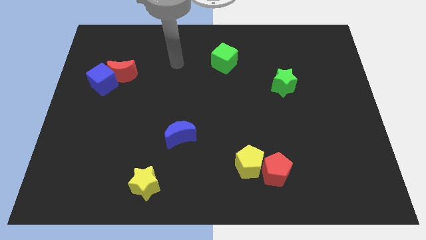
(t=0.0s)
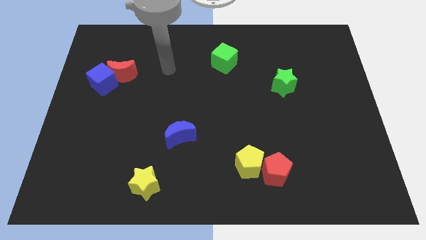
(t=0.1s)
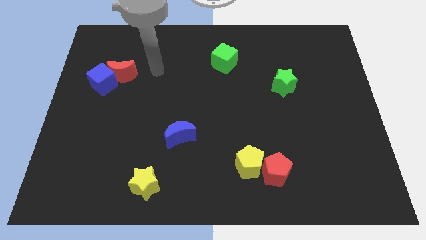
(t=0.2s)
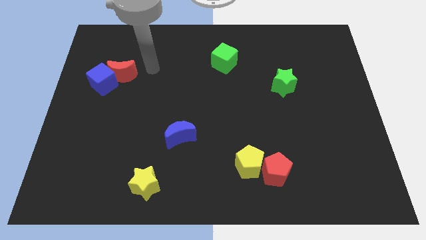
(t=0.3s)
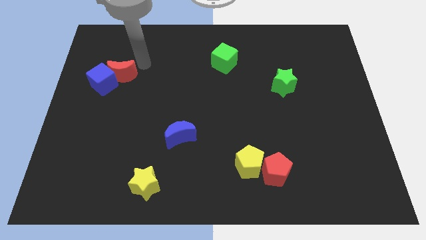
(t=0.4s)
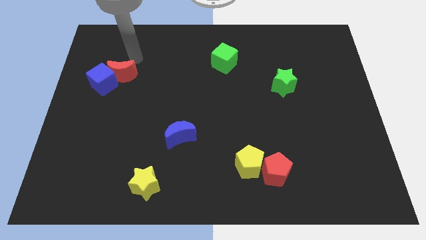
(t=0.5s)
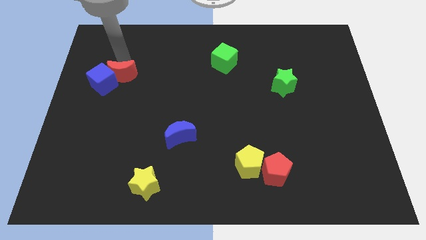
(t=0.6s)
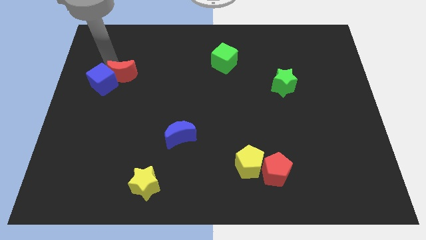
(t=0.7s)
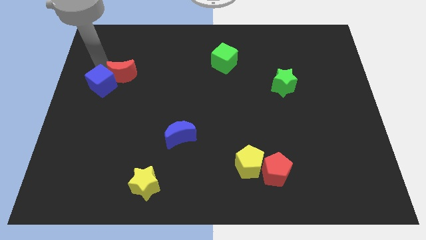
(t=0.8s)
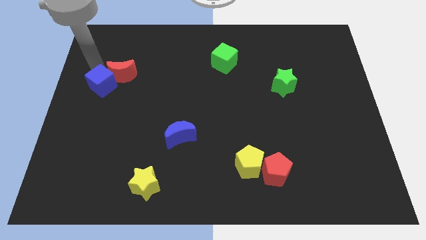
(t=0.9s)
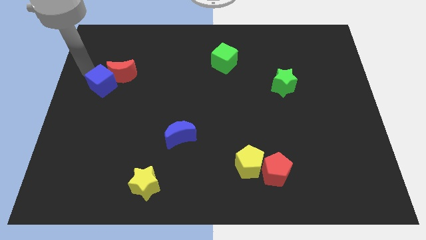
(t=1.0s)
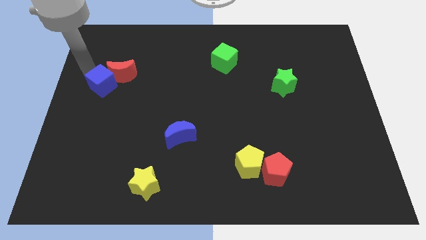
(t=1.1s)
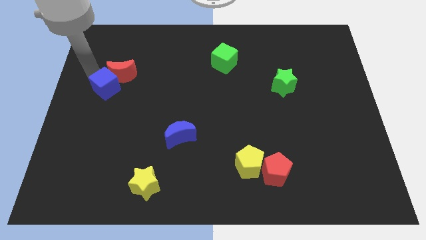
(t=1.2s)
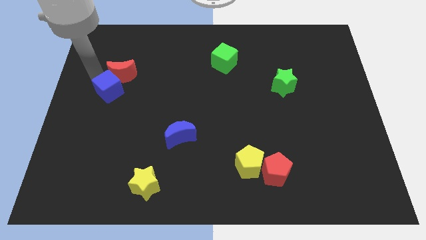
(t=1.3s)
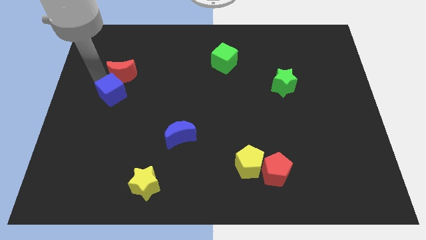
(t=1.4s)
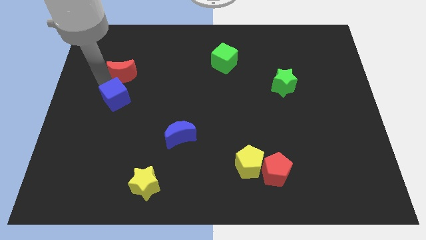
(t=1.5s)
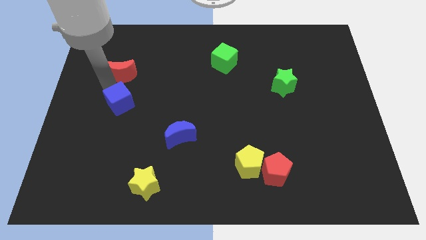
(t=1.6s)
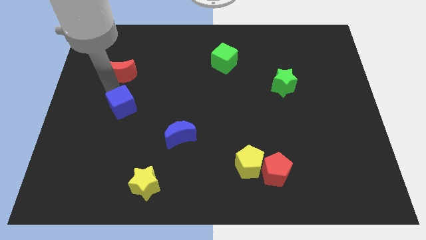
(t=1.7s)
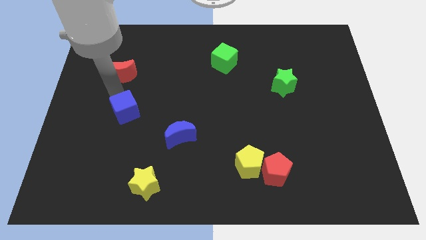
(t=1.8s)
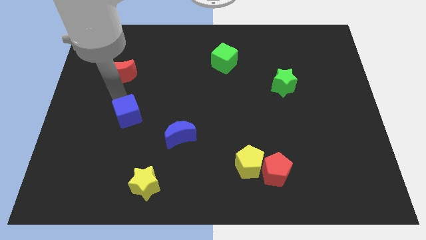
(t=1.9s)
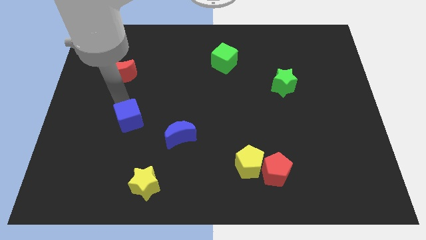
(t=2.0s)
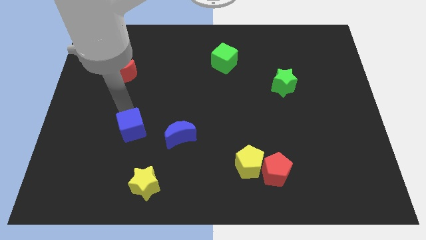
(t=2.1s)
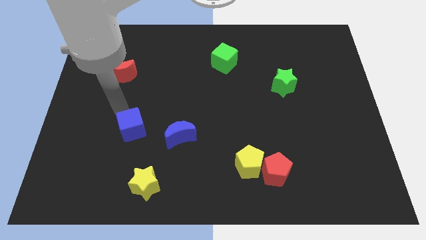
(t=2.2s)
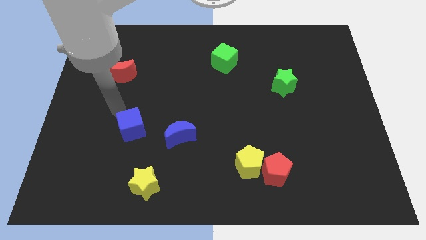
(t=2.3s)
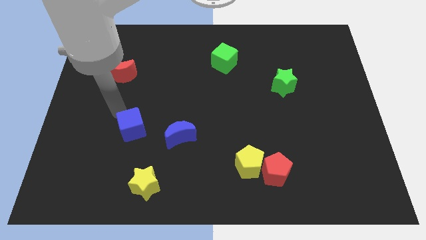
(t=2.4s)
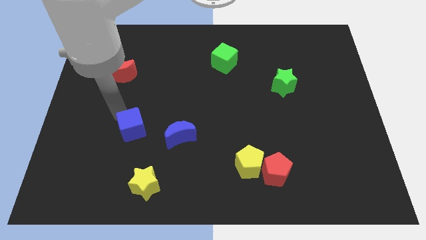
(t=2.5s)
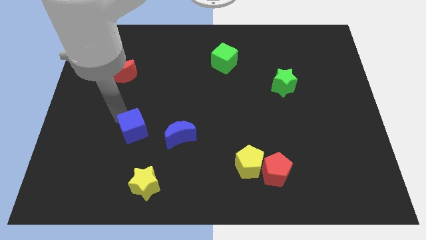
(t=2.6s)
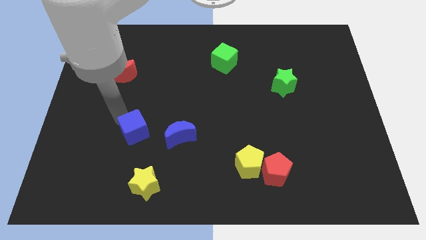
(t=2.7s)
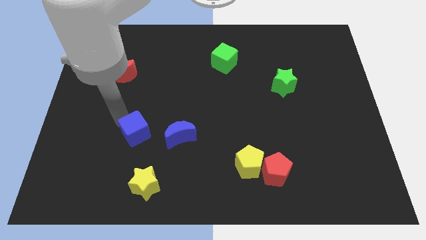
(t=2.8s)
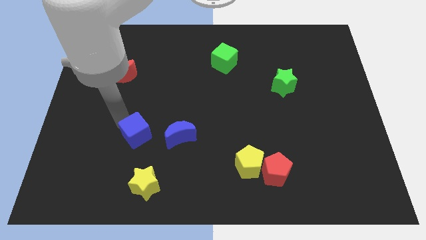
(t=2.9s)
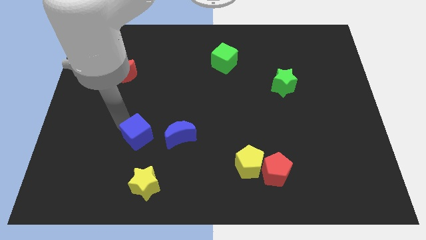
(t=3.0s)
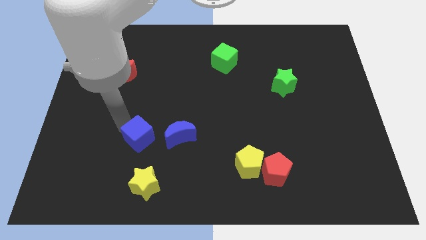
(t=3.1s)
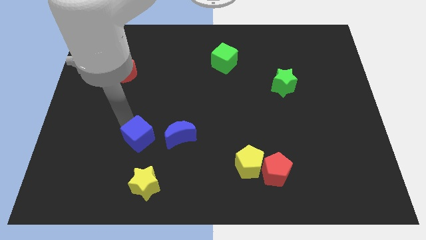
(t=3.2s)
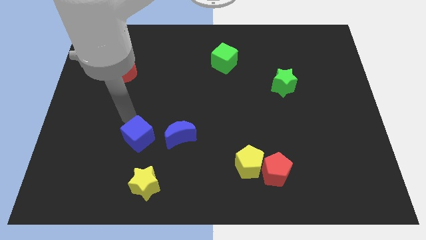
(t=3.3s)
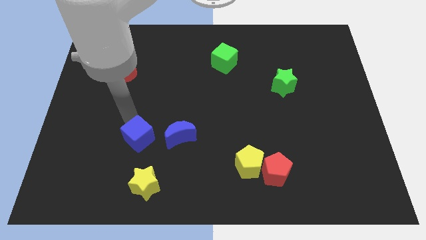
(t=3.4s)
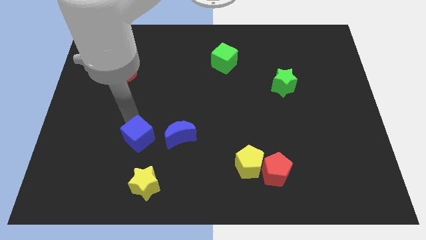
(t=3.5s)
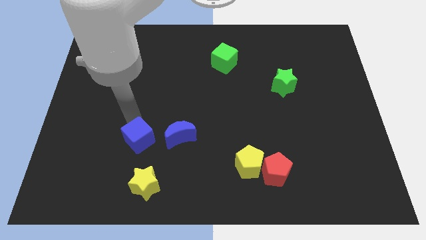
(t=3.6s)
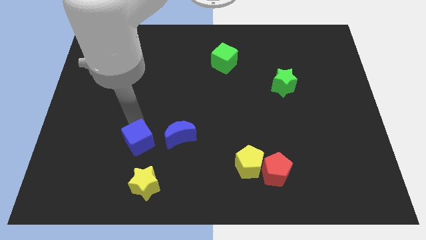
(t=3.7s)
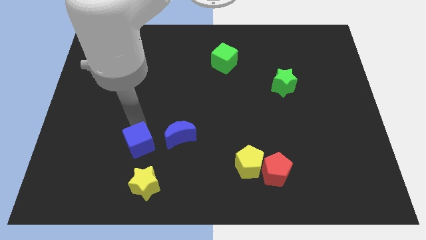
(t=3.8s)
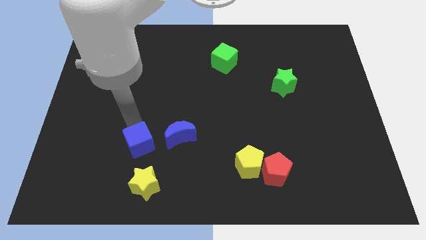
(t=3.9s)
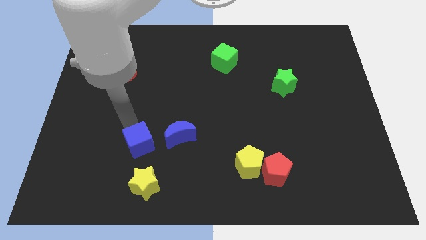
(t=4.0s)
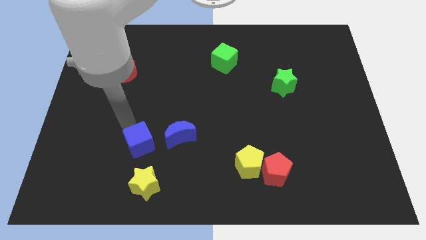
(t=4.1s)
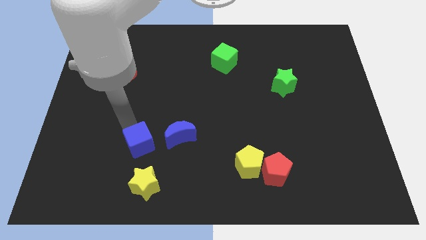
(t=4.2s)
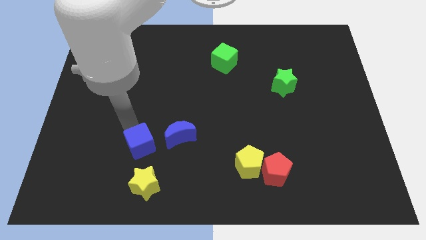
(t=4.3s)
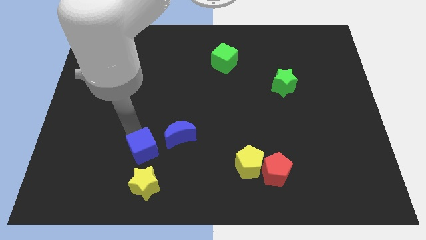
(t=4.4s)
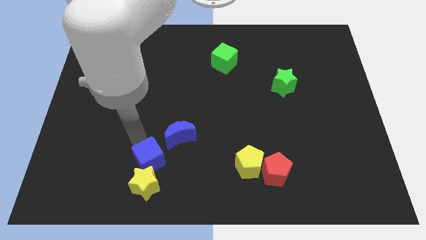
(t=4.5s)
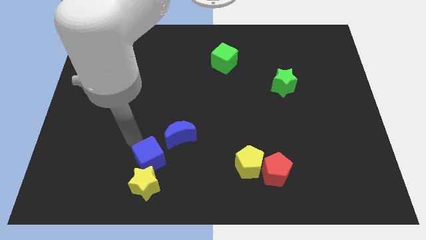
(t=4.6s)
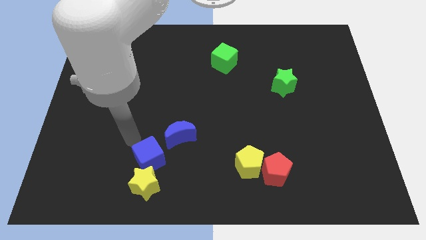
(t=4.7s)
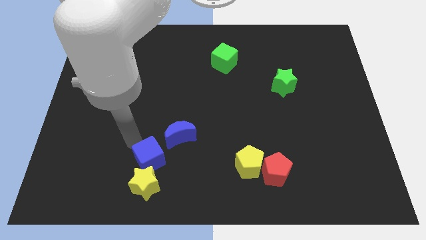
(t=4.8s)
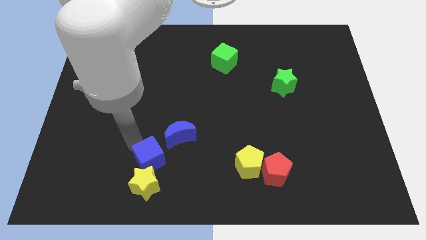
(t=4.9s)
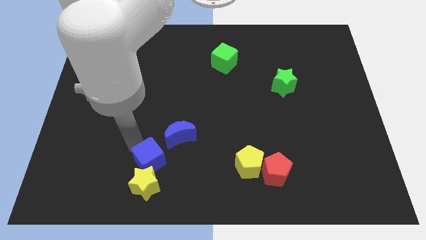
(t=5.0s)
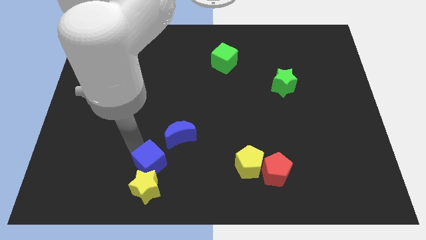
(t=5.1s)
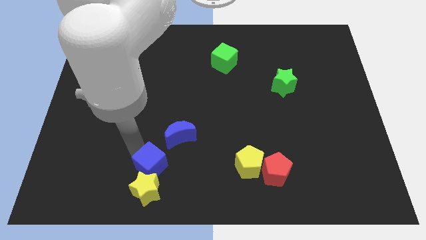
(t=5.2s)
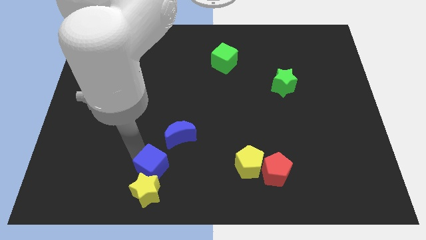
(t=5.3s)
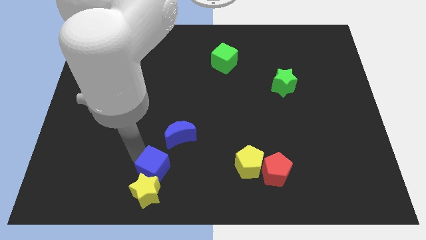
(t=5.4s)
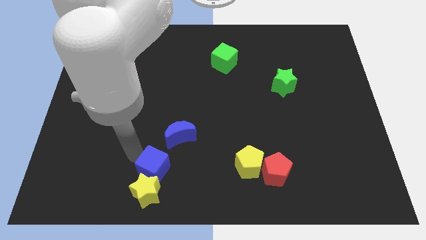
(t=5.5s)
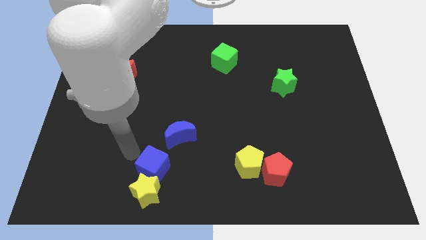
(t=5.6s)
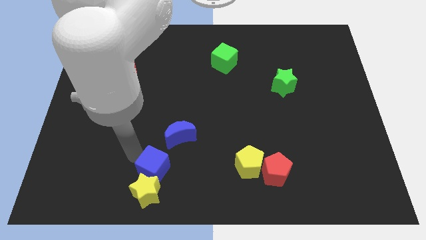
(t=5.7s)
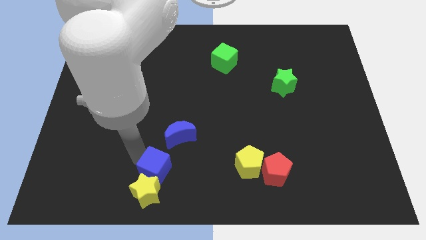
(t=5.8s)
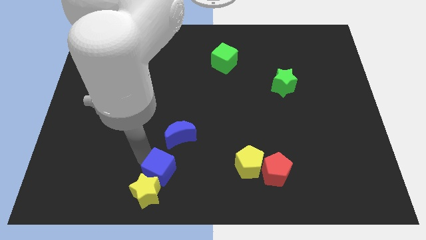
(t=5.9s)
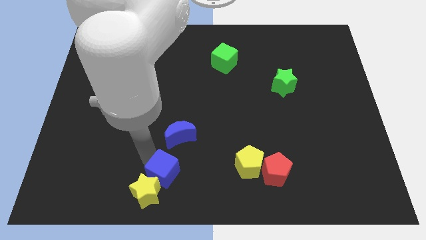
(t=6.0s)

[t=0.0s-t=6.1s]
push the blue cube to the bottom side

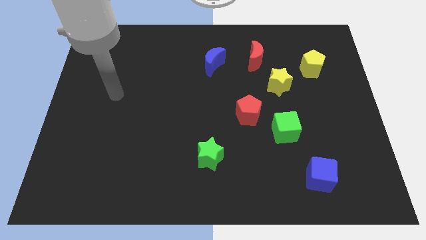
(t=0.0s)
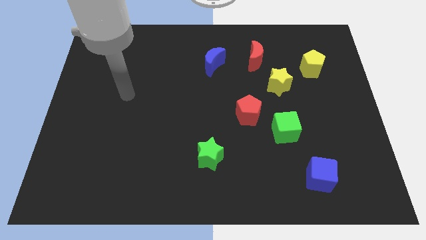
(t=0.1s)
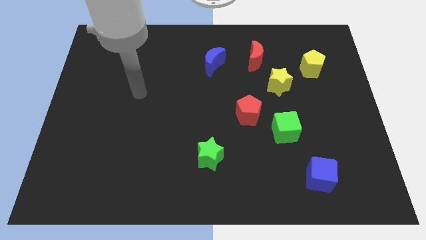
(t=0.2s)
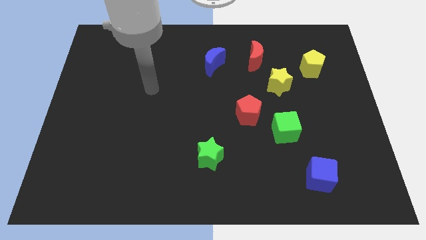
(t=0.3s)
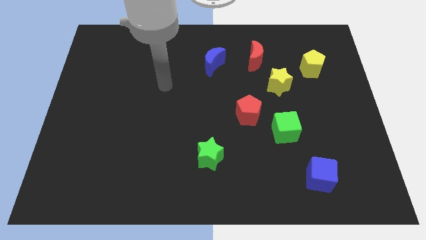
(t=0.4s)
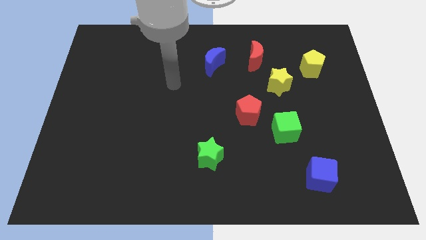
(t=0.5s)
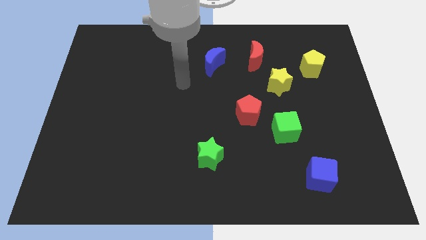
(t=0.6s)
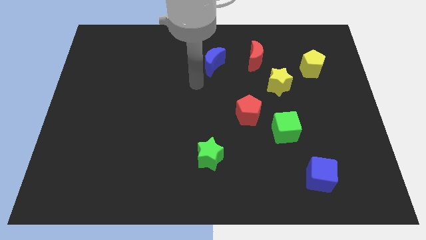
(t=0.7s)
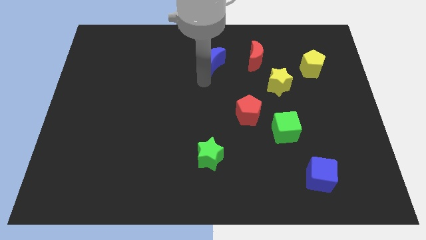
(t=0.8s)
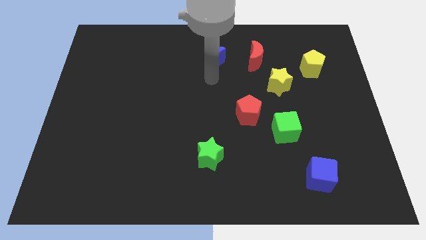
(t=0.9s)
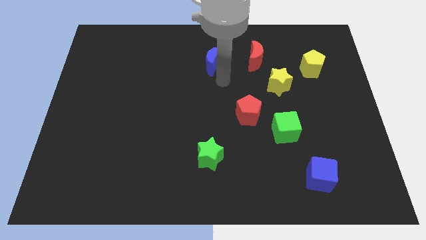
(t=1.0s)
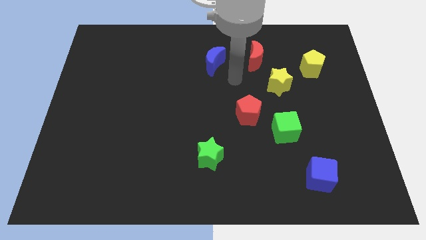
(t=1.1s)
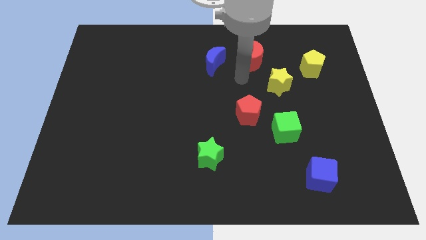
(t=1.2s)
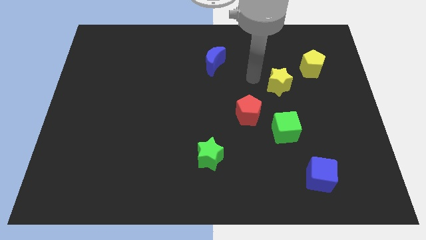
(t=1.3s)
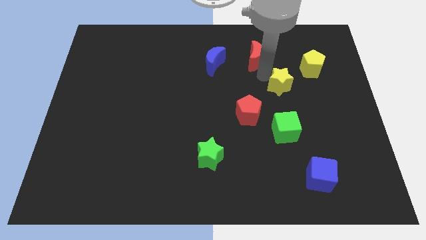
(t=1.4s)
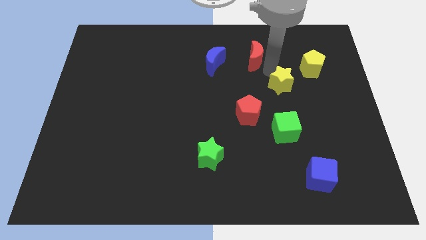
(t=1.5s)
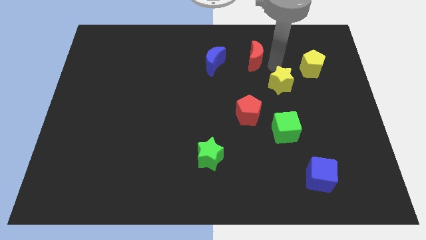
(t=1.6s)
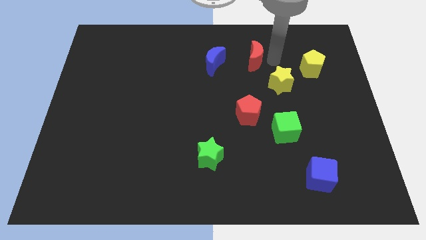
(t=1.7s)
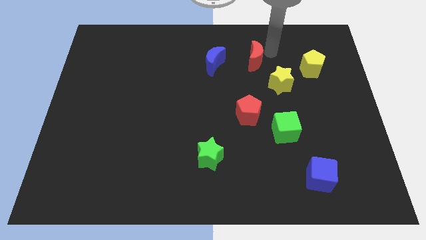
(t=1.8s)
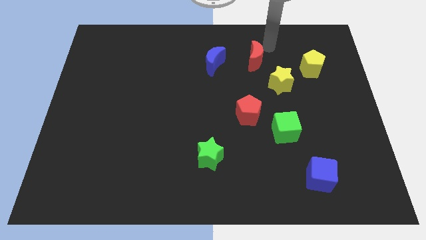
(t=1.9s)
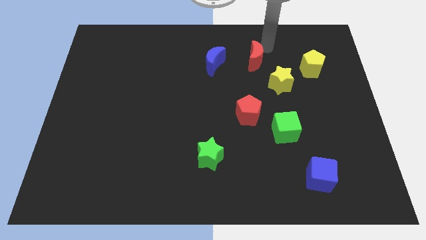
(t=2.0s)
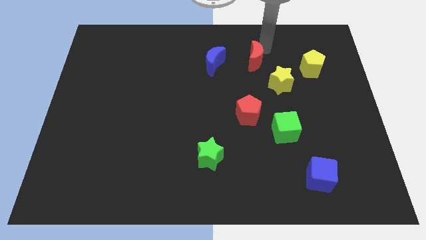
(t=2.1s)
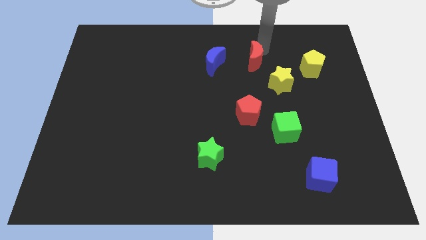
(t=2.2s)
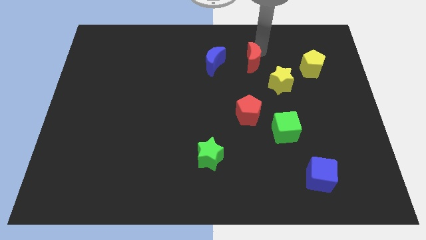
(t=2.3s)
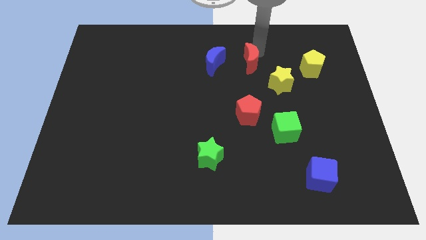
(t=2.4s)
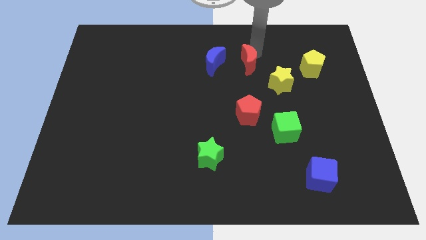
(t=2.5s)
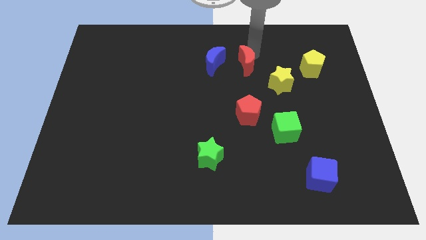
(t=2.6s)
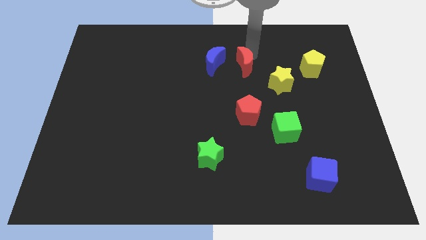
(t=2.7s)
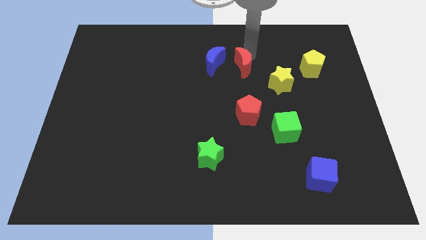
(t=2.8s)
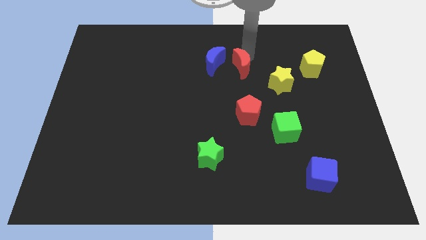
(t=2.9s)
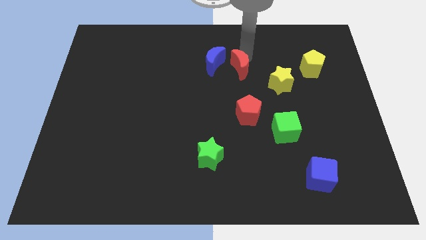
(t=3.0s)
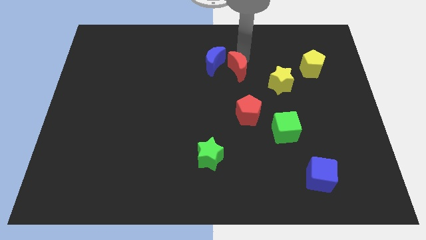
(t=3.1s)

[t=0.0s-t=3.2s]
put the red moon to the center of the board
